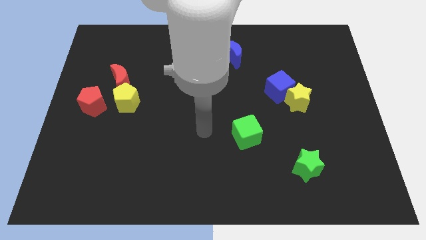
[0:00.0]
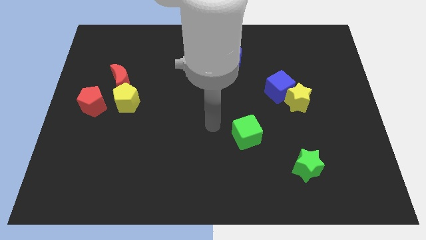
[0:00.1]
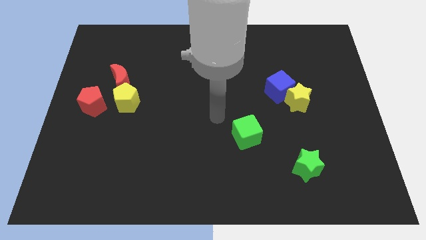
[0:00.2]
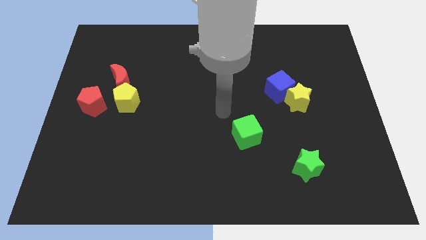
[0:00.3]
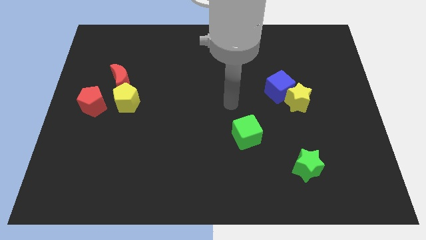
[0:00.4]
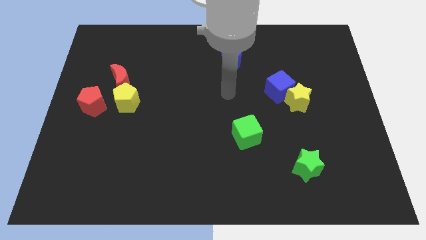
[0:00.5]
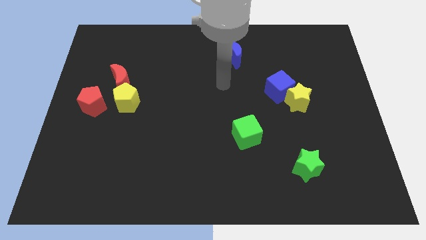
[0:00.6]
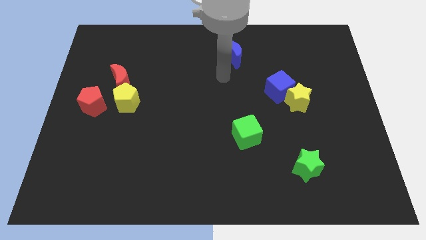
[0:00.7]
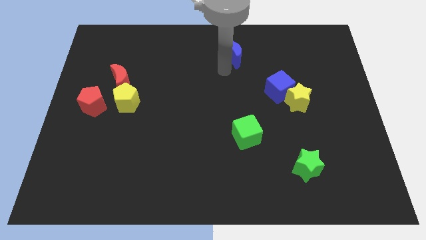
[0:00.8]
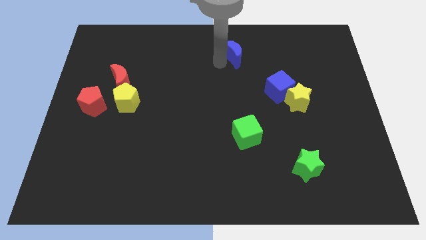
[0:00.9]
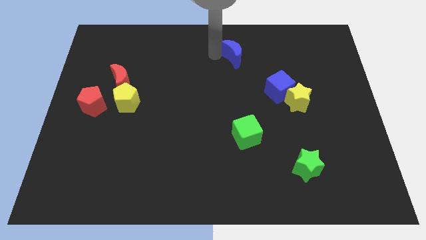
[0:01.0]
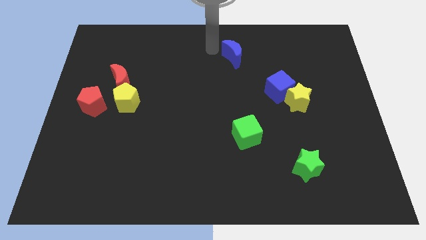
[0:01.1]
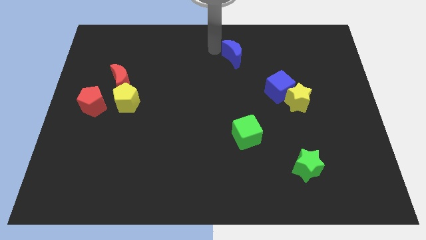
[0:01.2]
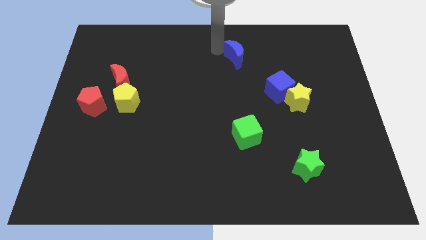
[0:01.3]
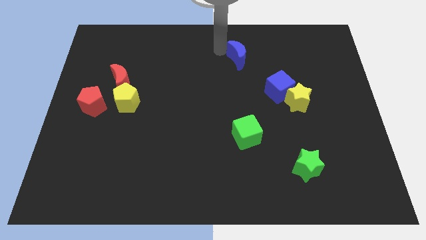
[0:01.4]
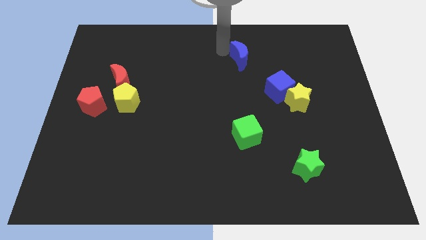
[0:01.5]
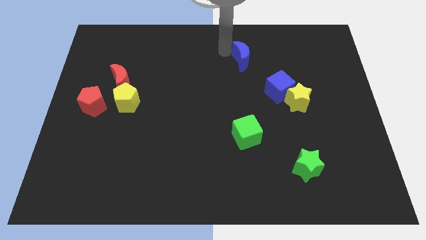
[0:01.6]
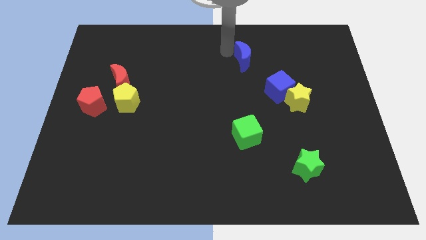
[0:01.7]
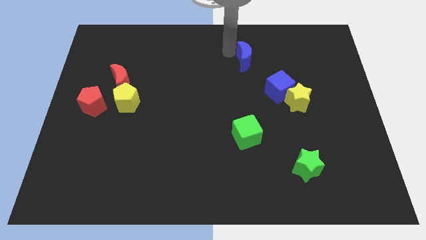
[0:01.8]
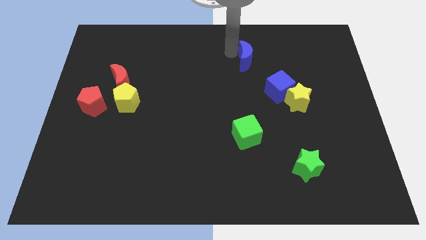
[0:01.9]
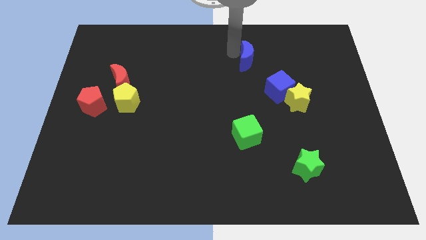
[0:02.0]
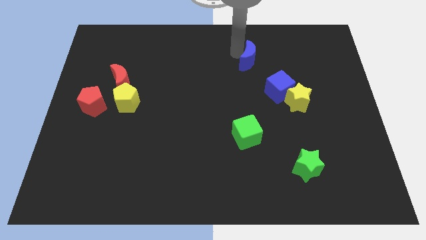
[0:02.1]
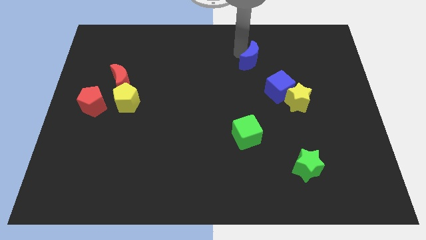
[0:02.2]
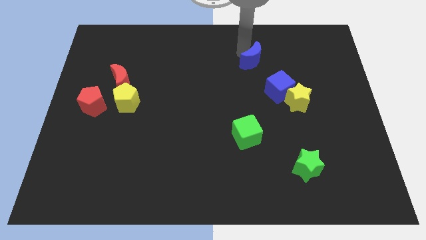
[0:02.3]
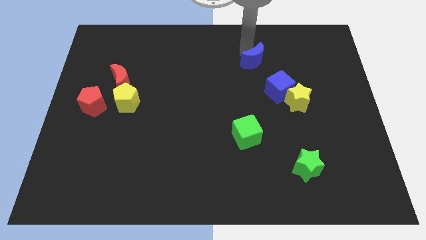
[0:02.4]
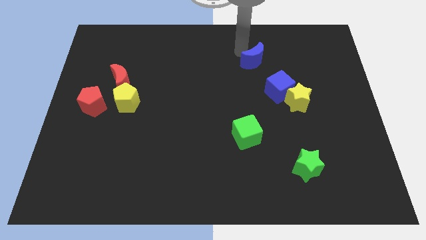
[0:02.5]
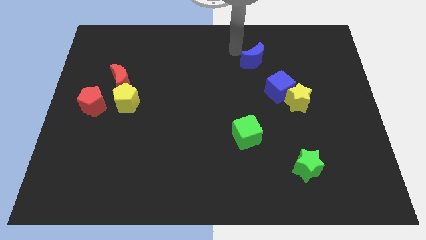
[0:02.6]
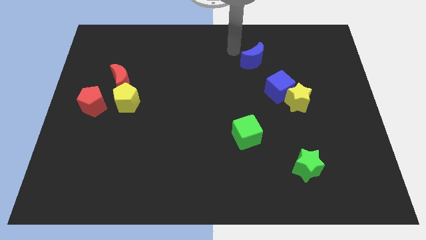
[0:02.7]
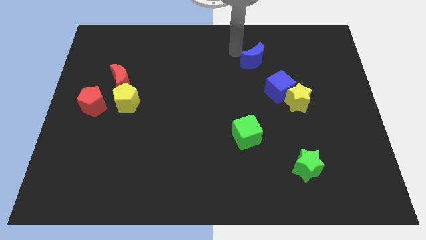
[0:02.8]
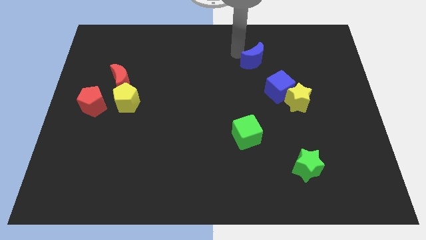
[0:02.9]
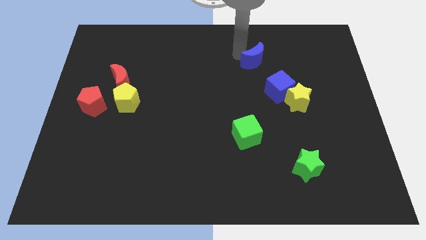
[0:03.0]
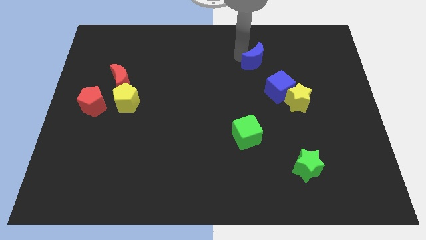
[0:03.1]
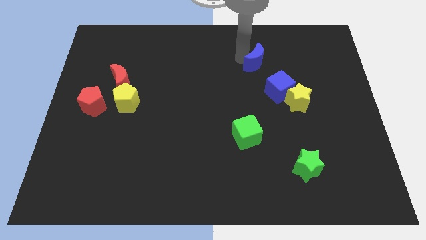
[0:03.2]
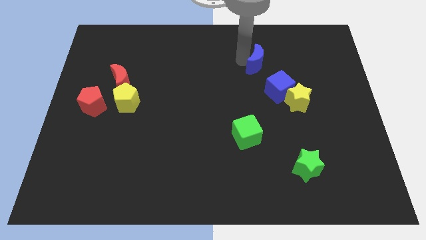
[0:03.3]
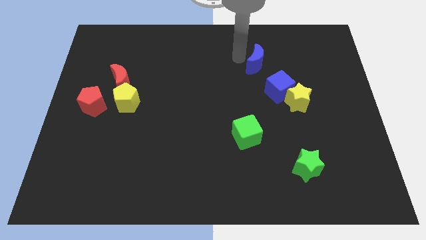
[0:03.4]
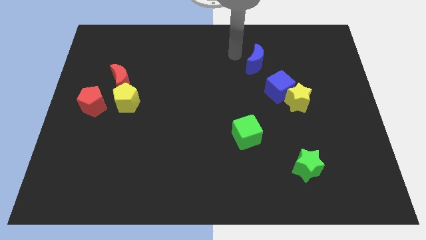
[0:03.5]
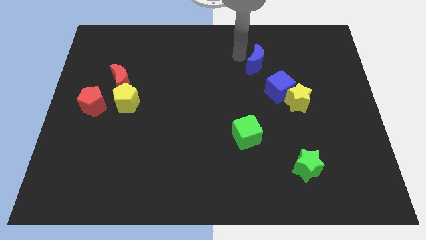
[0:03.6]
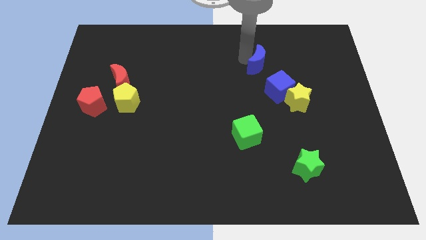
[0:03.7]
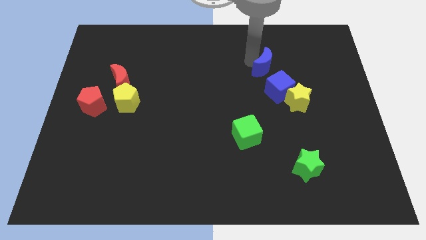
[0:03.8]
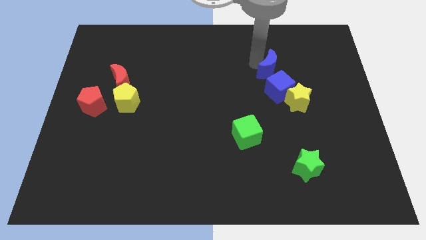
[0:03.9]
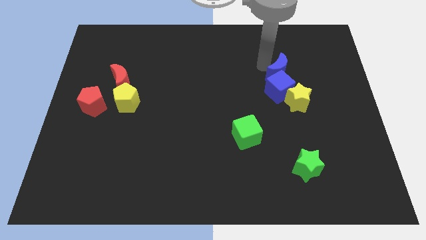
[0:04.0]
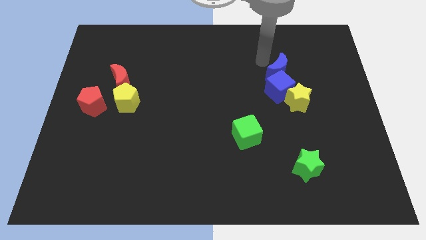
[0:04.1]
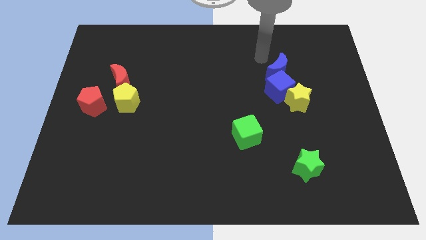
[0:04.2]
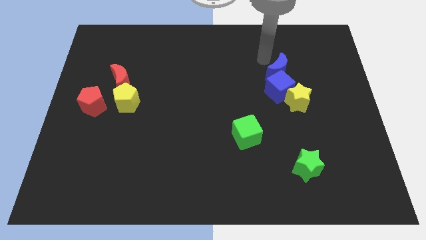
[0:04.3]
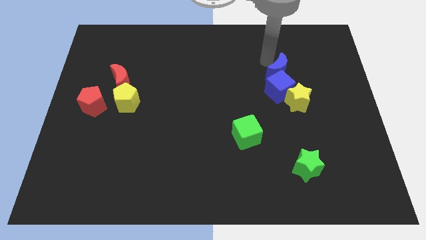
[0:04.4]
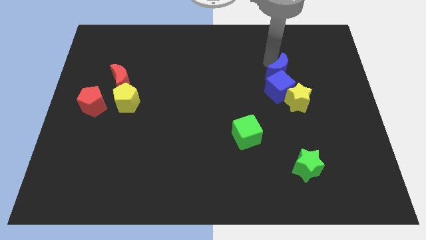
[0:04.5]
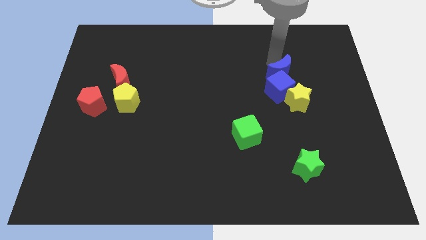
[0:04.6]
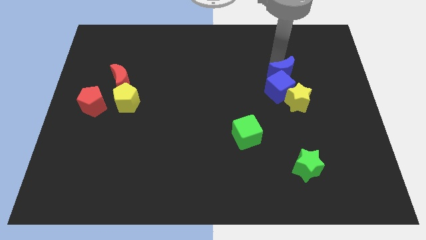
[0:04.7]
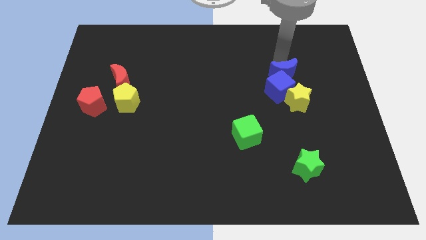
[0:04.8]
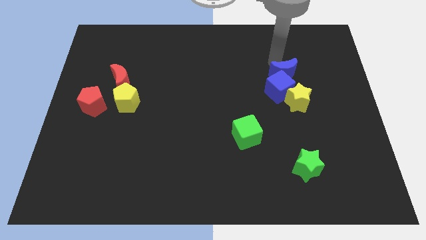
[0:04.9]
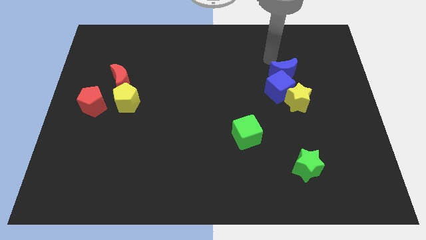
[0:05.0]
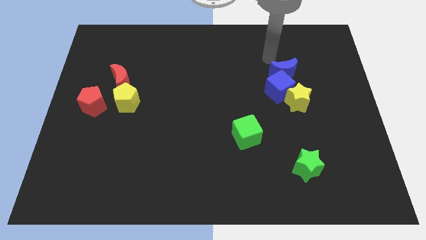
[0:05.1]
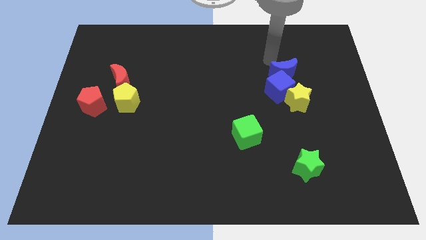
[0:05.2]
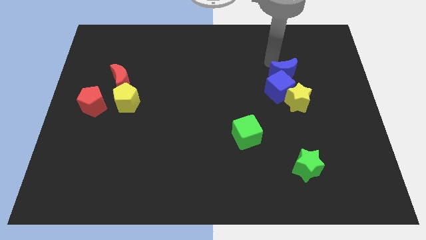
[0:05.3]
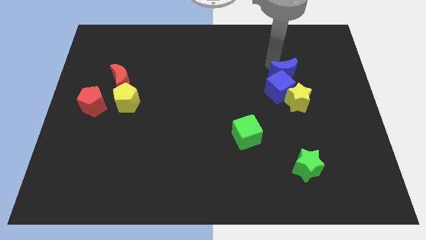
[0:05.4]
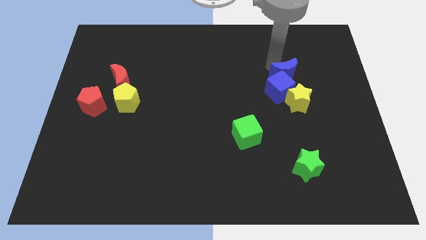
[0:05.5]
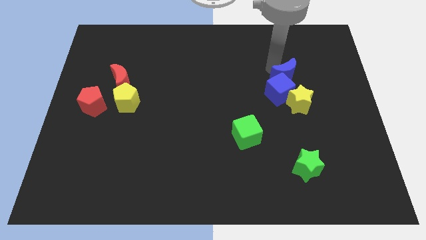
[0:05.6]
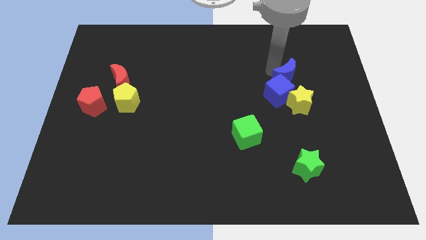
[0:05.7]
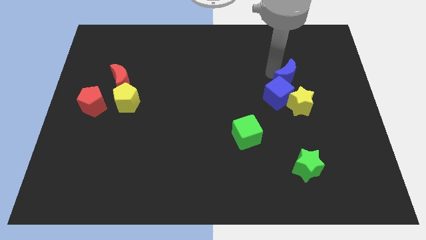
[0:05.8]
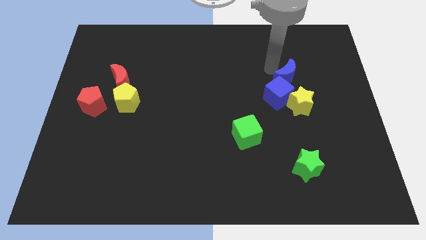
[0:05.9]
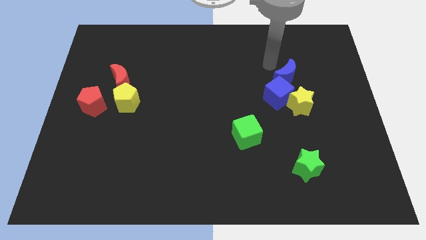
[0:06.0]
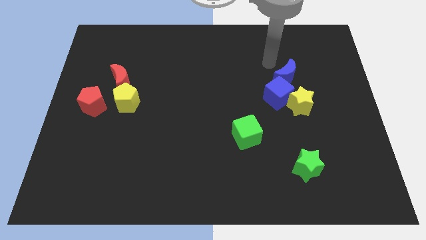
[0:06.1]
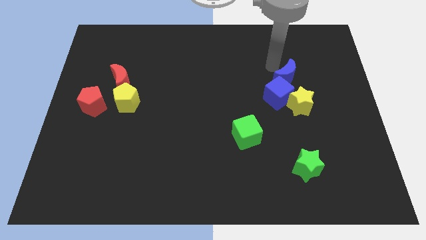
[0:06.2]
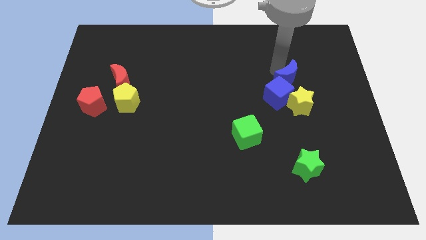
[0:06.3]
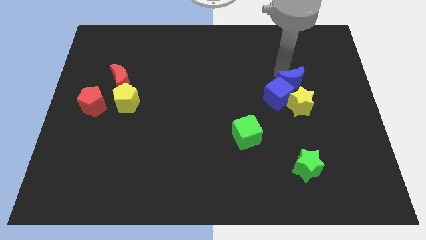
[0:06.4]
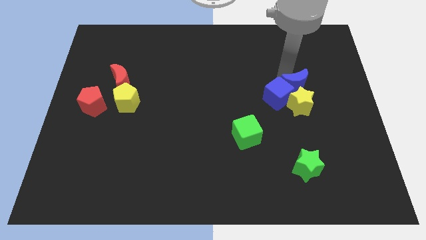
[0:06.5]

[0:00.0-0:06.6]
put the blue moon to the yellow star
